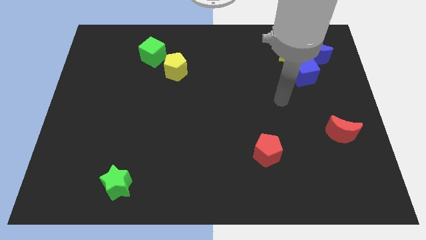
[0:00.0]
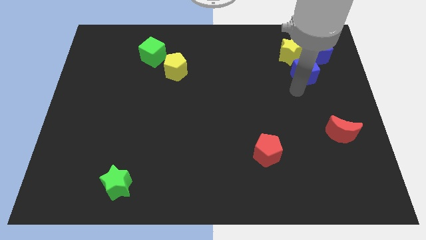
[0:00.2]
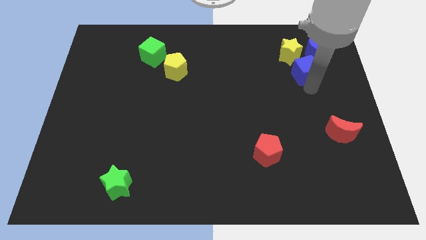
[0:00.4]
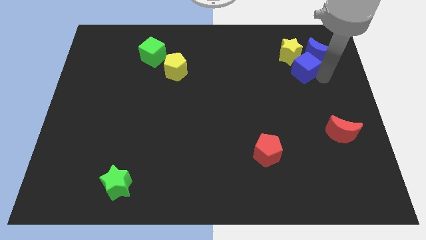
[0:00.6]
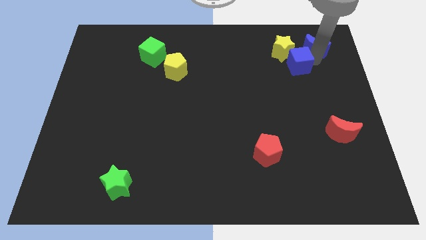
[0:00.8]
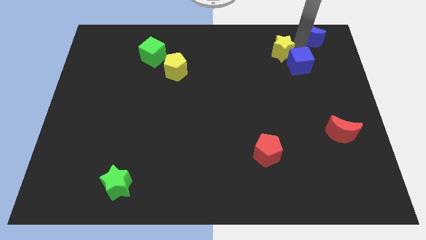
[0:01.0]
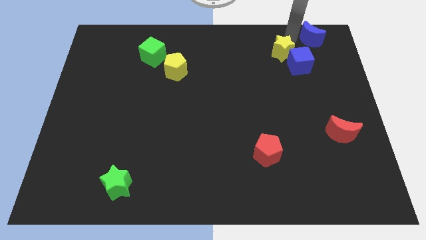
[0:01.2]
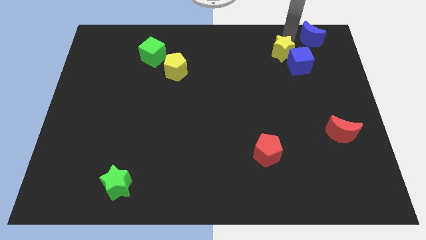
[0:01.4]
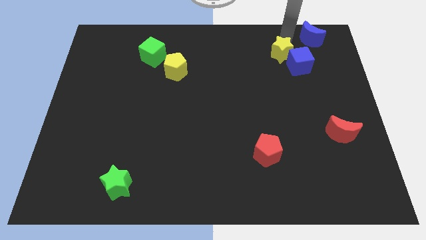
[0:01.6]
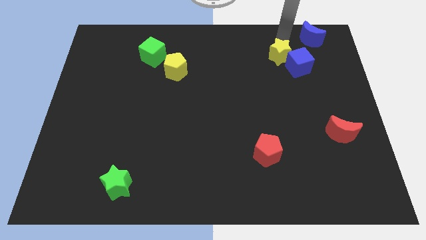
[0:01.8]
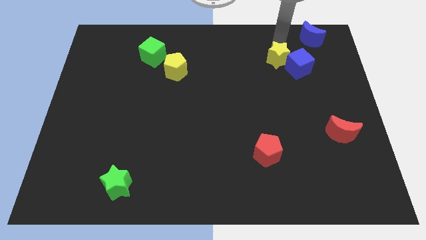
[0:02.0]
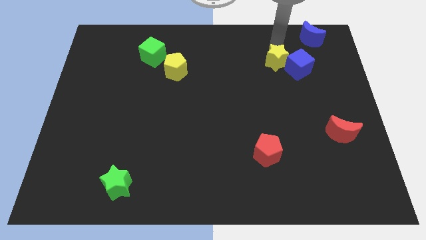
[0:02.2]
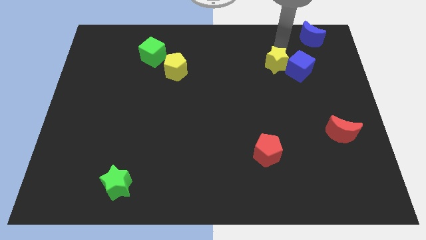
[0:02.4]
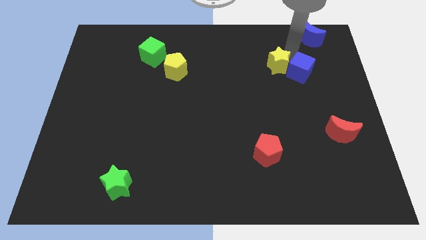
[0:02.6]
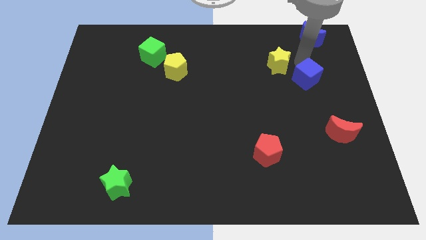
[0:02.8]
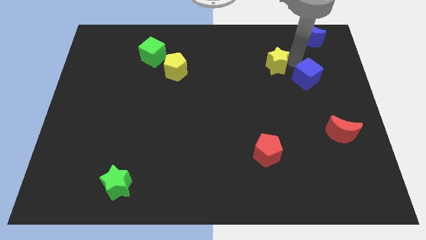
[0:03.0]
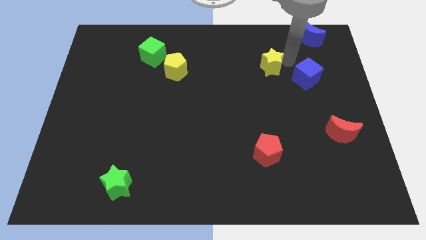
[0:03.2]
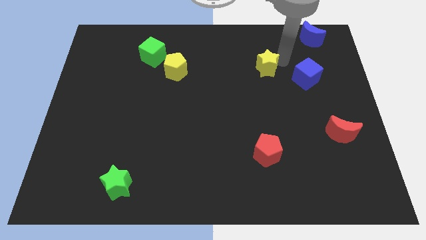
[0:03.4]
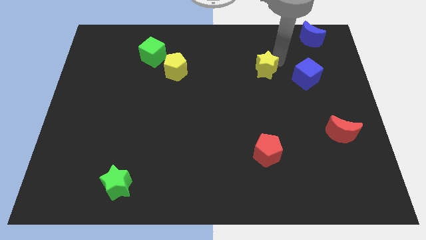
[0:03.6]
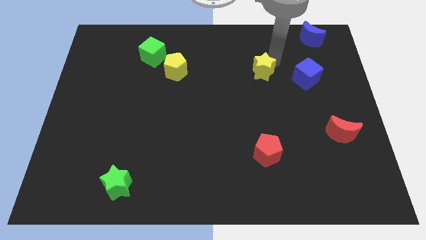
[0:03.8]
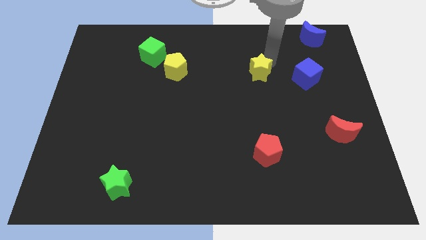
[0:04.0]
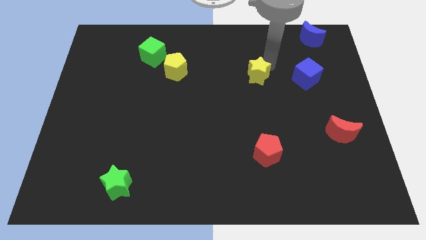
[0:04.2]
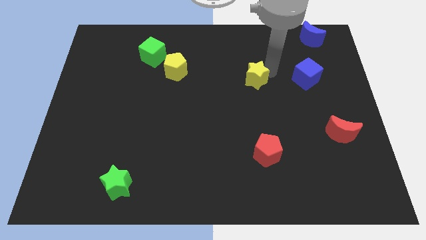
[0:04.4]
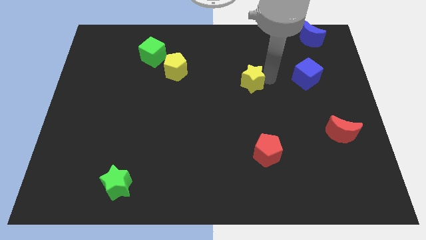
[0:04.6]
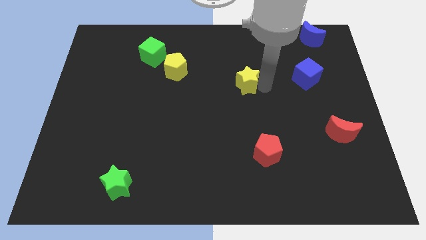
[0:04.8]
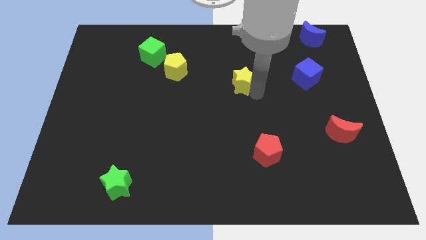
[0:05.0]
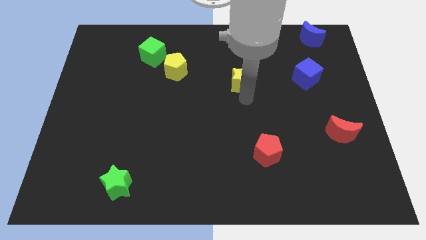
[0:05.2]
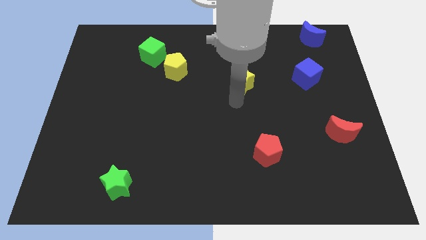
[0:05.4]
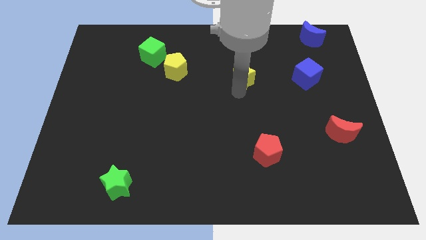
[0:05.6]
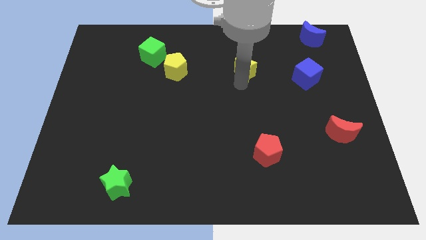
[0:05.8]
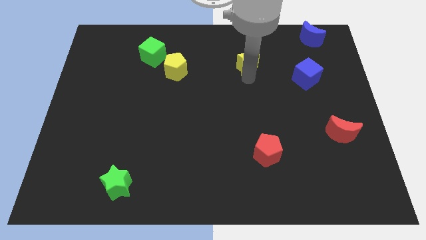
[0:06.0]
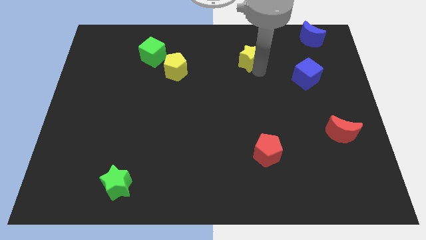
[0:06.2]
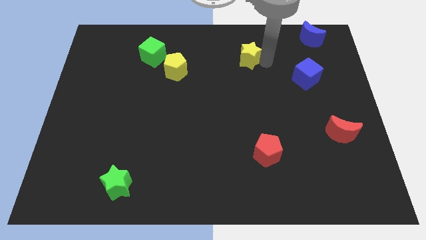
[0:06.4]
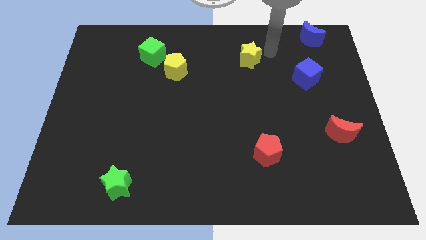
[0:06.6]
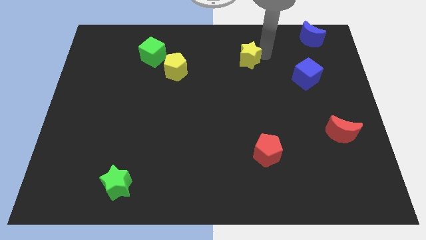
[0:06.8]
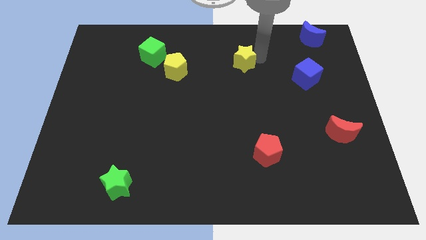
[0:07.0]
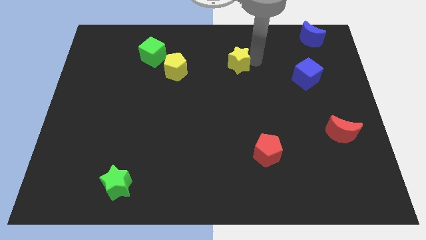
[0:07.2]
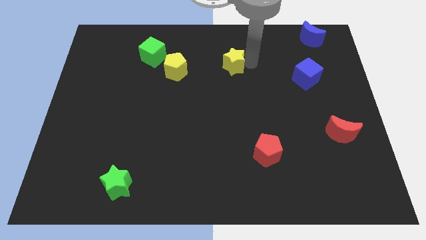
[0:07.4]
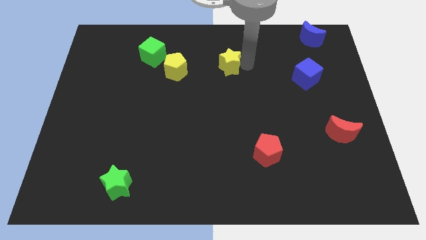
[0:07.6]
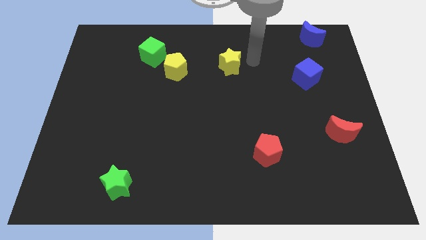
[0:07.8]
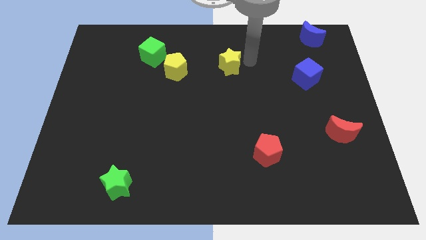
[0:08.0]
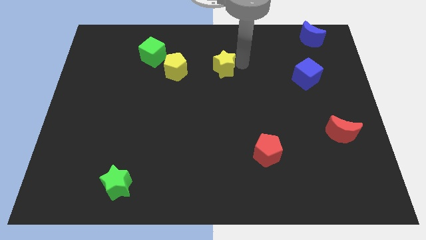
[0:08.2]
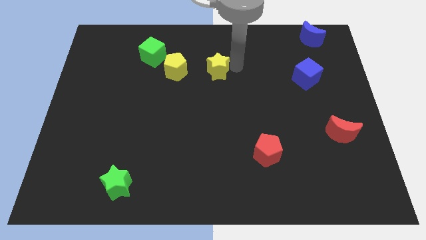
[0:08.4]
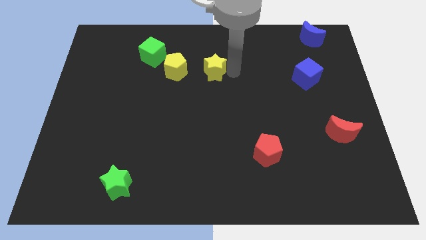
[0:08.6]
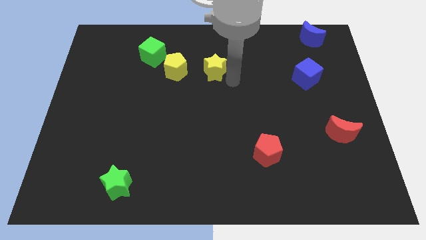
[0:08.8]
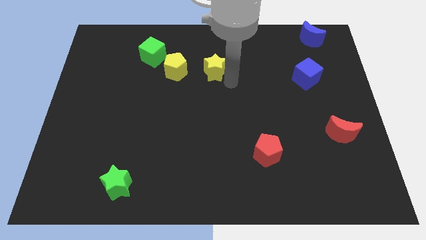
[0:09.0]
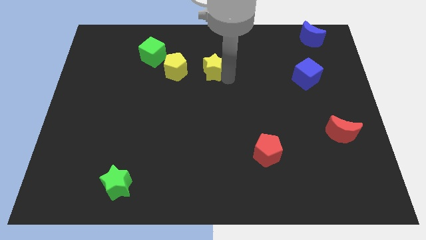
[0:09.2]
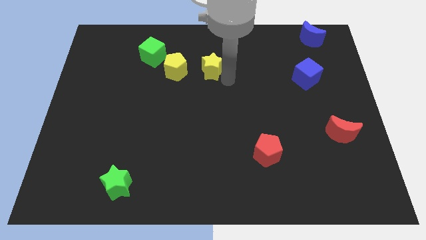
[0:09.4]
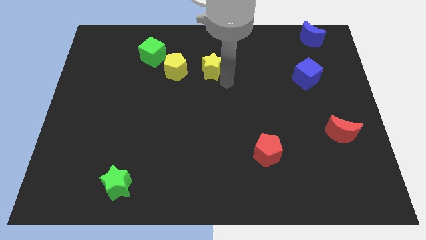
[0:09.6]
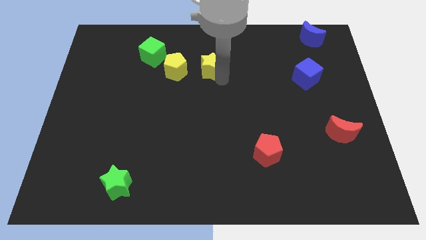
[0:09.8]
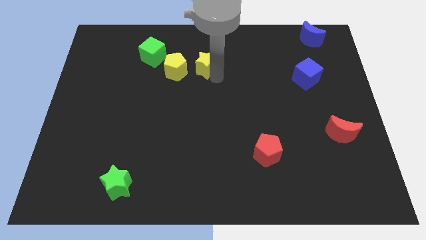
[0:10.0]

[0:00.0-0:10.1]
put the yellow star diagonally up and to the right of the yellow pentagon

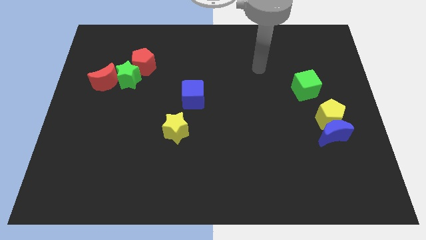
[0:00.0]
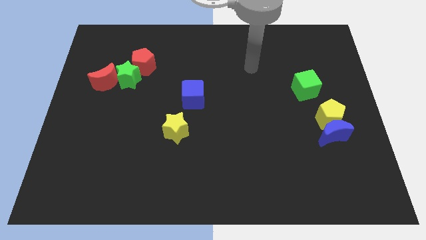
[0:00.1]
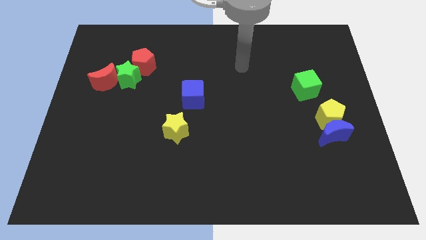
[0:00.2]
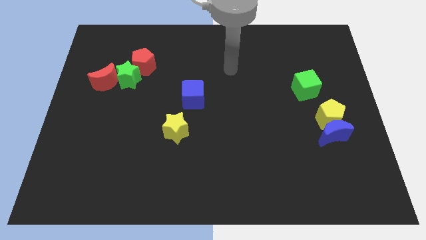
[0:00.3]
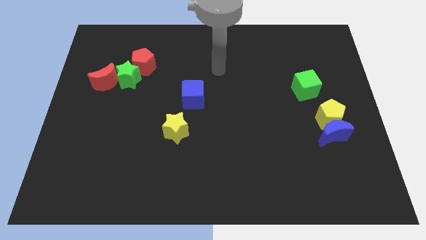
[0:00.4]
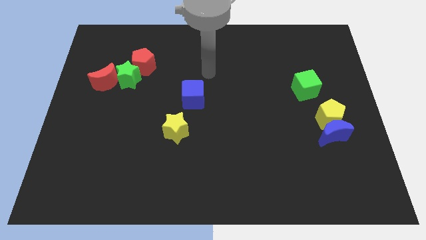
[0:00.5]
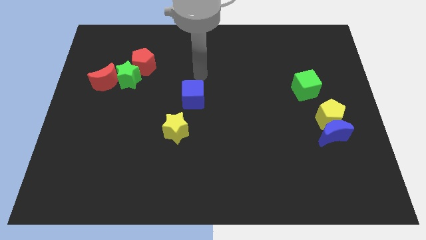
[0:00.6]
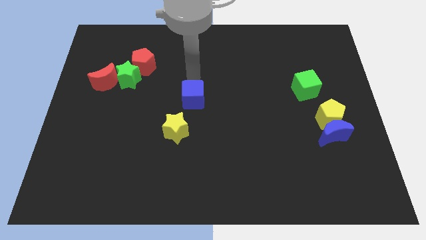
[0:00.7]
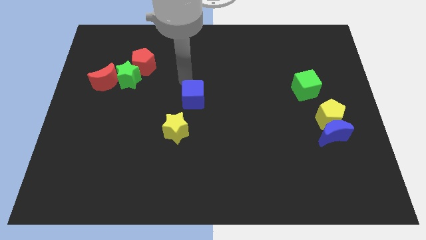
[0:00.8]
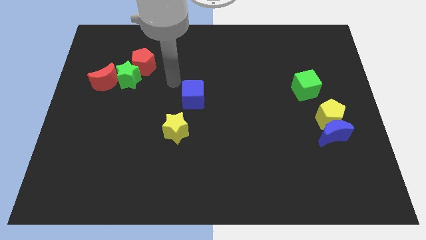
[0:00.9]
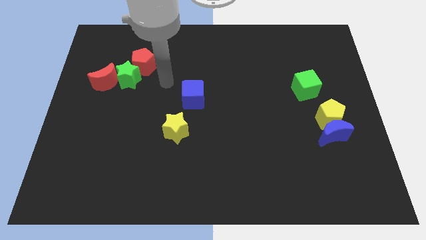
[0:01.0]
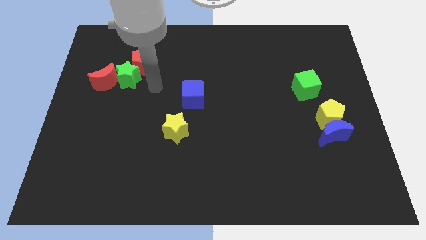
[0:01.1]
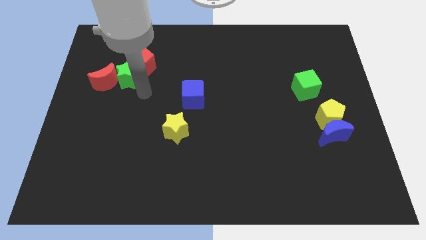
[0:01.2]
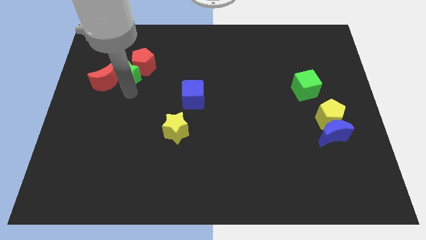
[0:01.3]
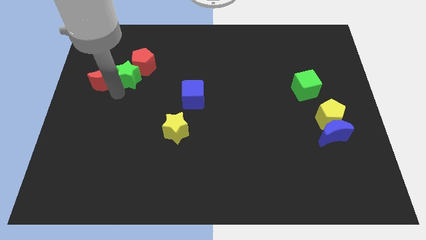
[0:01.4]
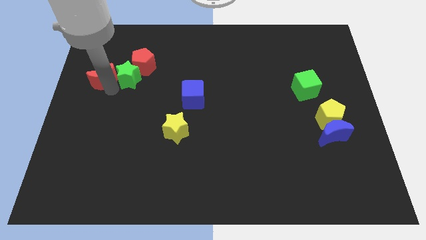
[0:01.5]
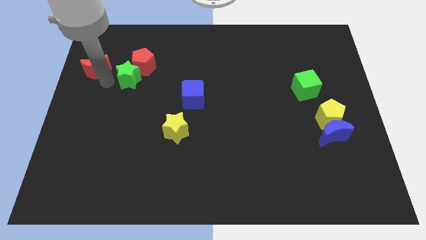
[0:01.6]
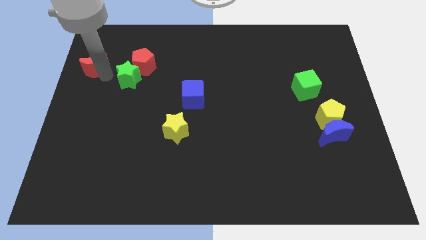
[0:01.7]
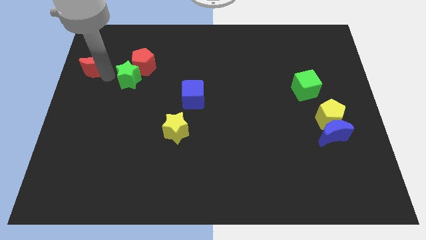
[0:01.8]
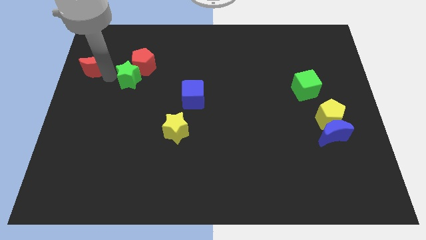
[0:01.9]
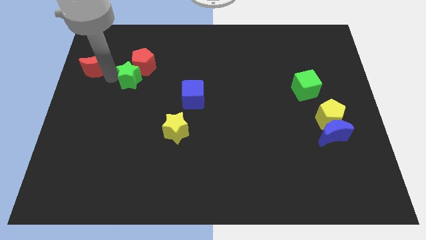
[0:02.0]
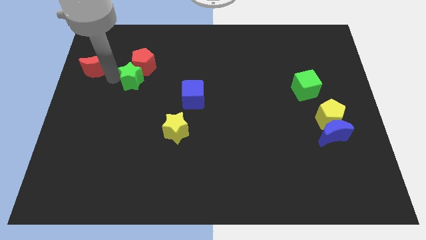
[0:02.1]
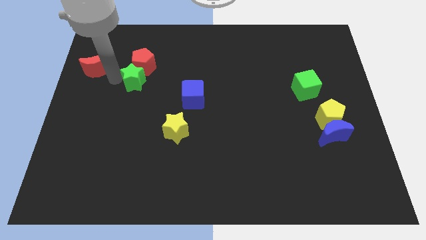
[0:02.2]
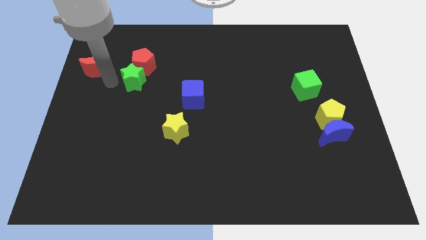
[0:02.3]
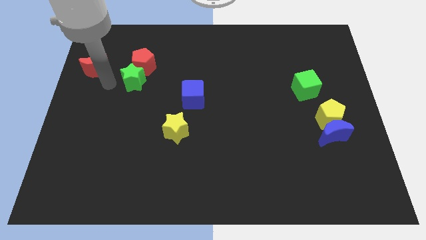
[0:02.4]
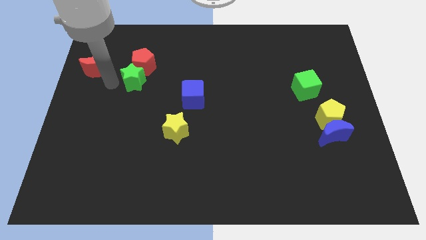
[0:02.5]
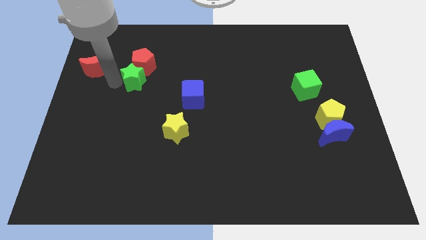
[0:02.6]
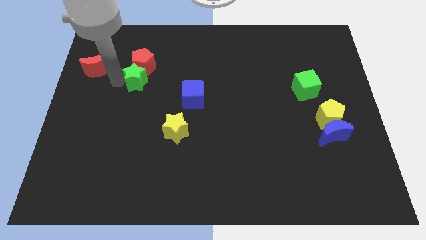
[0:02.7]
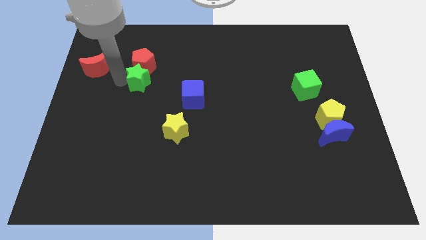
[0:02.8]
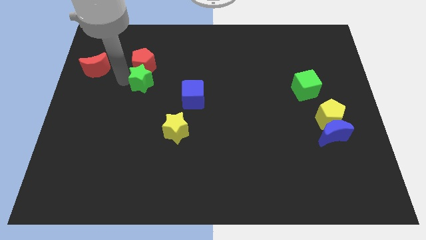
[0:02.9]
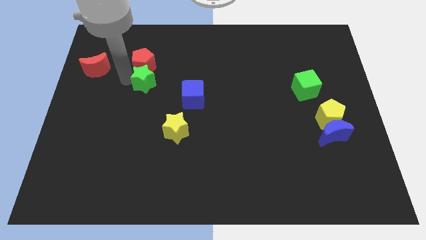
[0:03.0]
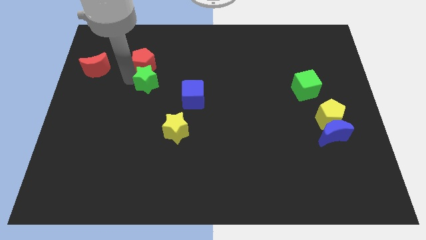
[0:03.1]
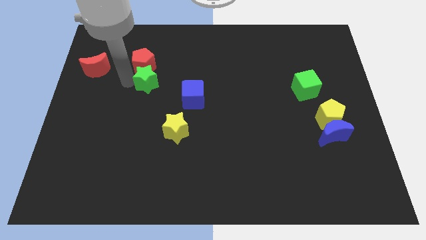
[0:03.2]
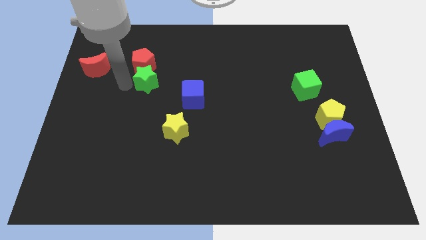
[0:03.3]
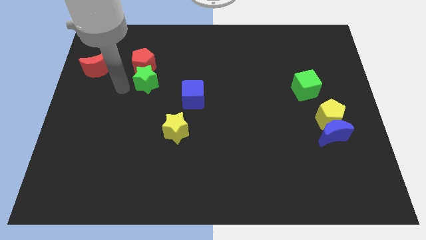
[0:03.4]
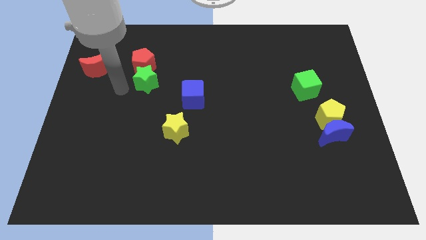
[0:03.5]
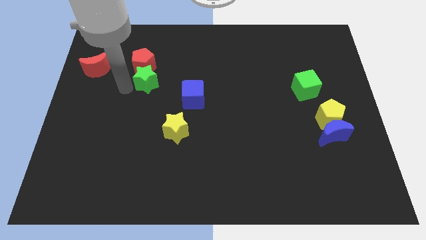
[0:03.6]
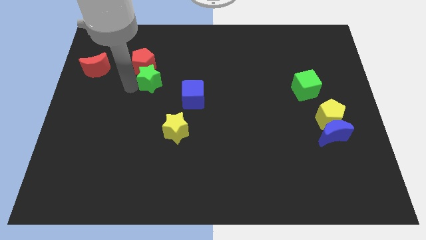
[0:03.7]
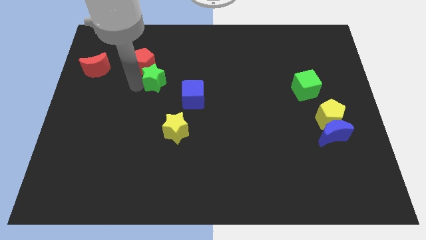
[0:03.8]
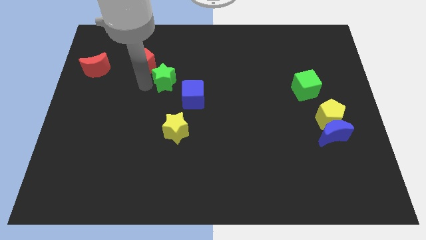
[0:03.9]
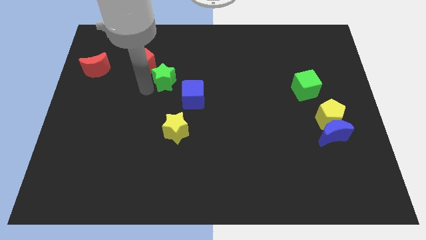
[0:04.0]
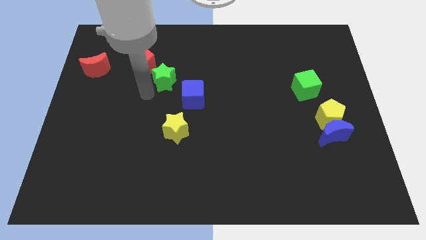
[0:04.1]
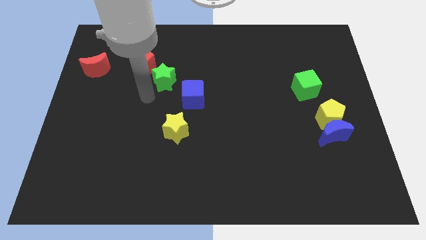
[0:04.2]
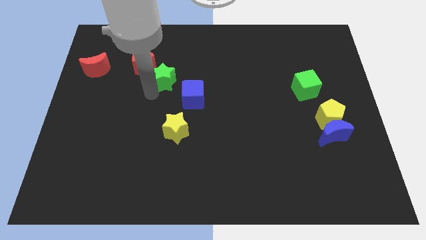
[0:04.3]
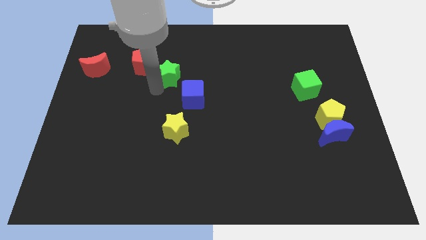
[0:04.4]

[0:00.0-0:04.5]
slide the green star to the right side of the red pentagon
